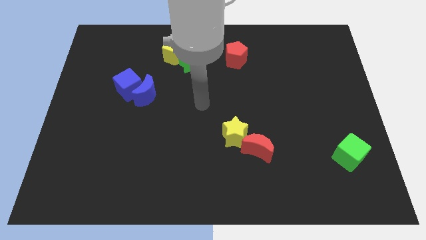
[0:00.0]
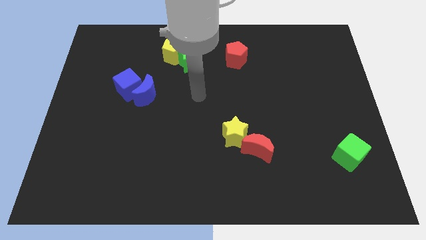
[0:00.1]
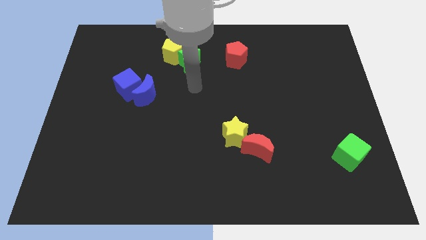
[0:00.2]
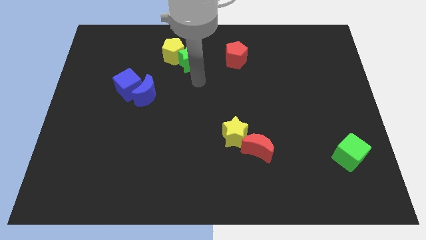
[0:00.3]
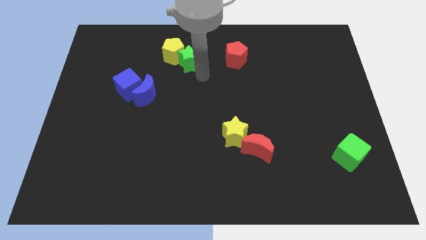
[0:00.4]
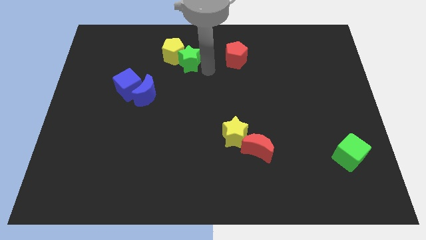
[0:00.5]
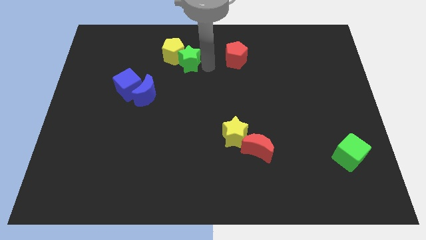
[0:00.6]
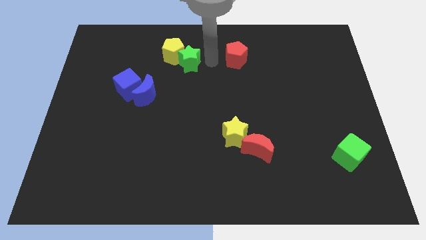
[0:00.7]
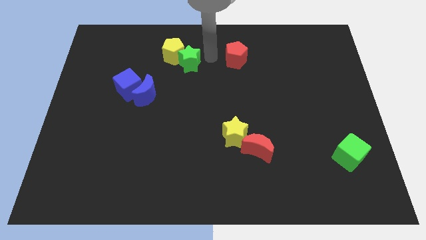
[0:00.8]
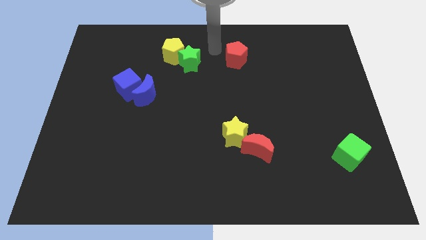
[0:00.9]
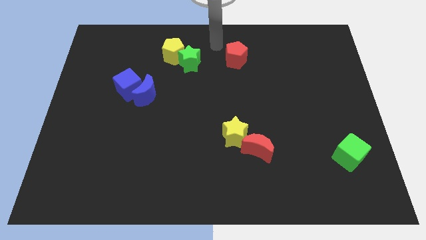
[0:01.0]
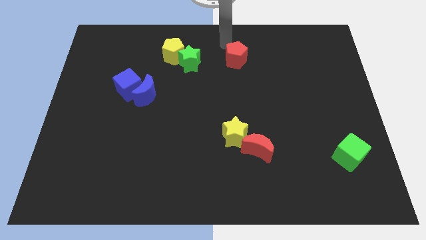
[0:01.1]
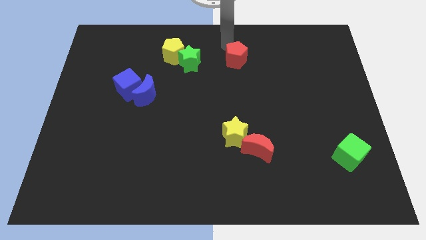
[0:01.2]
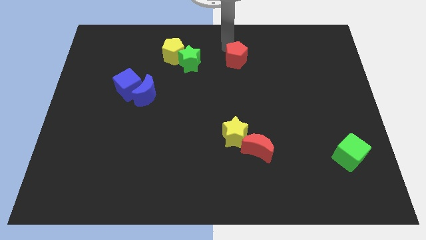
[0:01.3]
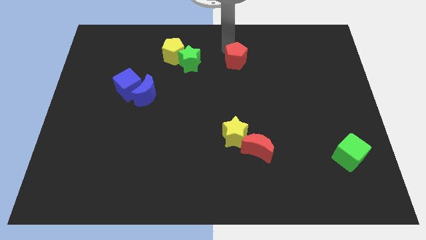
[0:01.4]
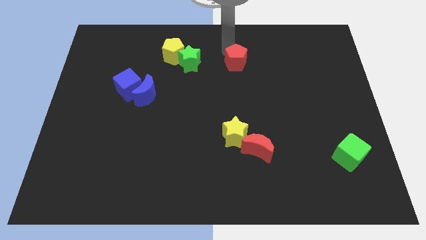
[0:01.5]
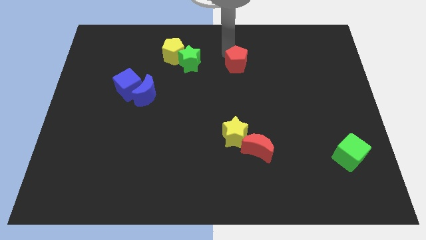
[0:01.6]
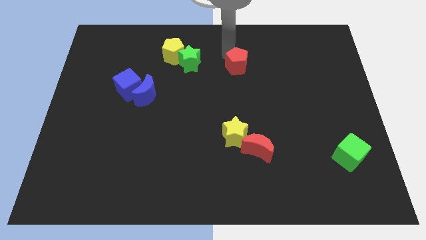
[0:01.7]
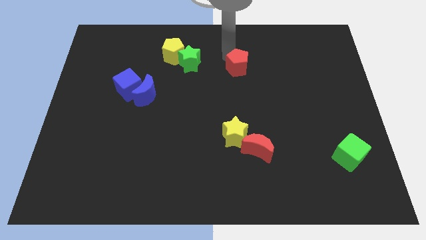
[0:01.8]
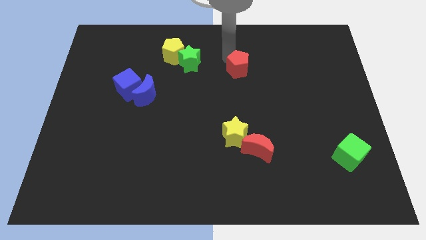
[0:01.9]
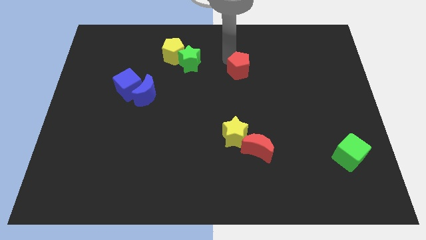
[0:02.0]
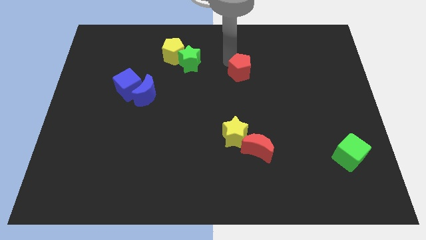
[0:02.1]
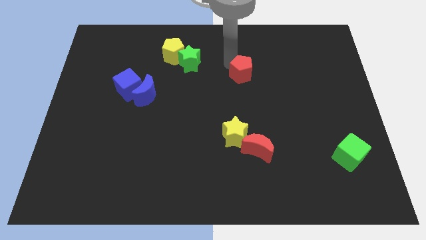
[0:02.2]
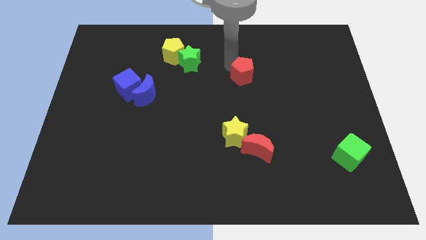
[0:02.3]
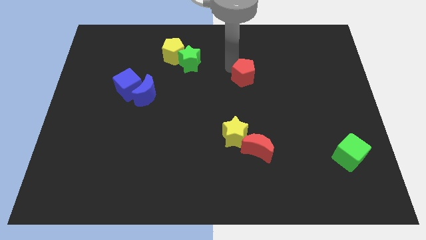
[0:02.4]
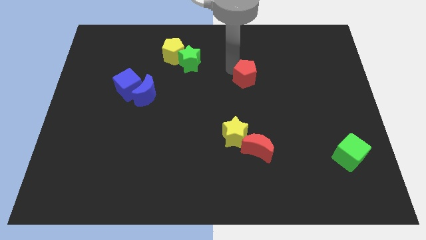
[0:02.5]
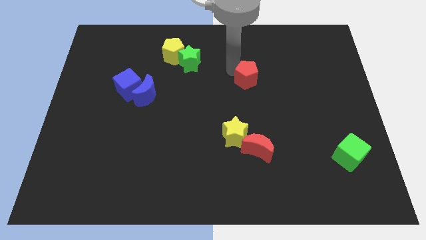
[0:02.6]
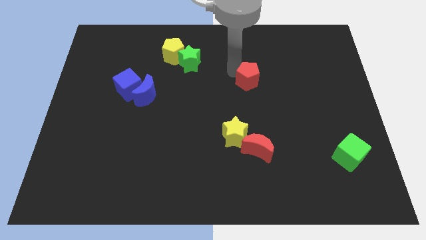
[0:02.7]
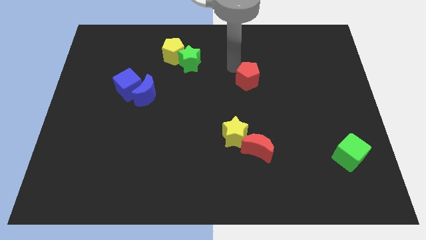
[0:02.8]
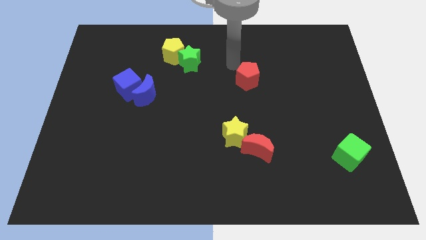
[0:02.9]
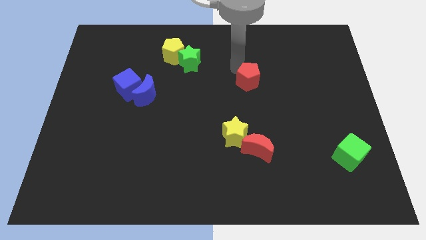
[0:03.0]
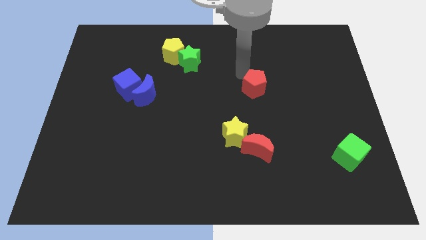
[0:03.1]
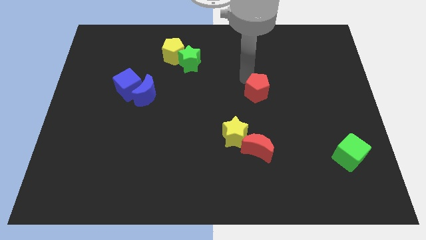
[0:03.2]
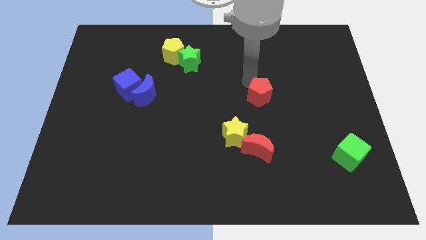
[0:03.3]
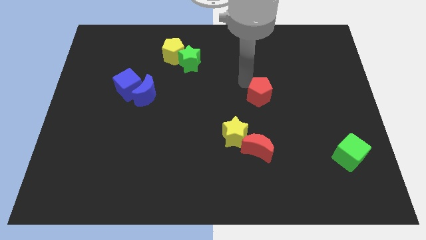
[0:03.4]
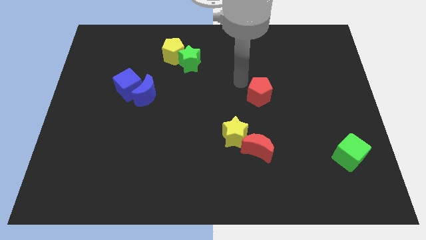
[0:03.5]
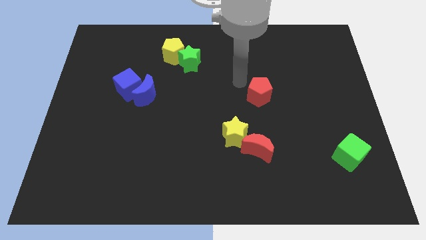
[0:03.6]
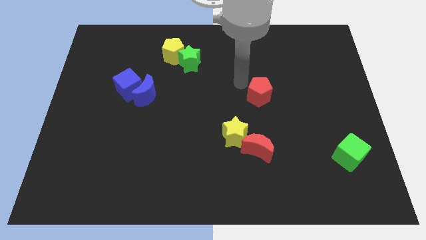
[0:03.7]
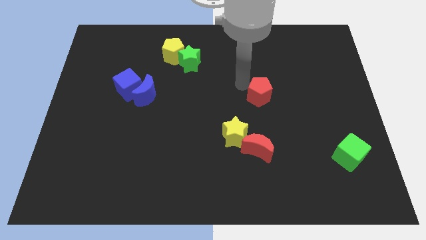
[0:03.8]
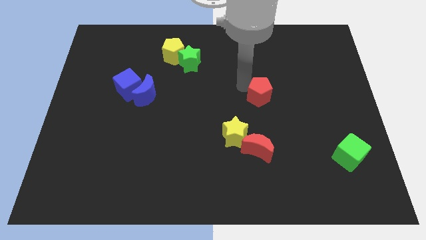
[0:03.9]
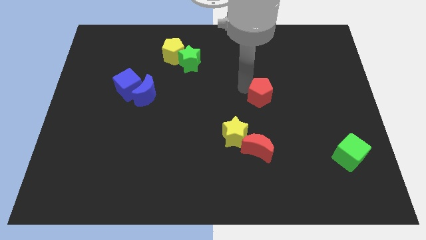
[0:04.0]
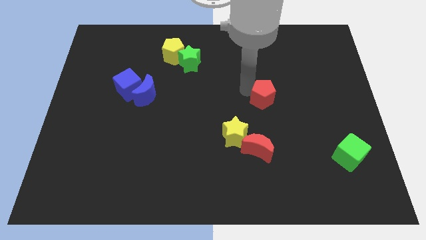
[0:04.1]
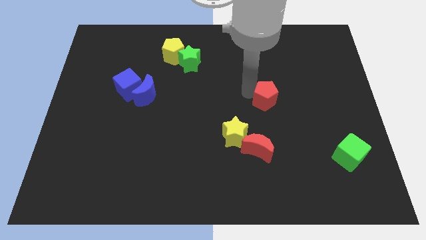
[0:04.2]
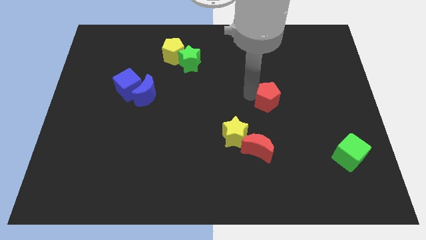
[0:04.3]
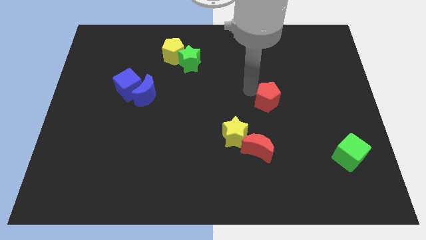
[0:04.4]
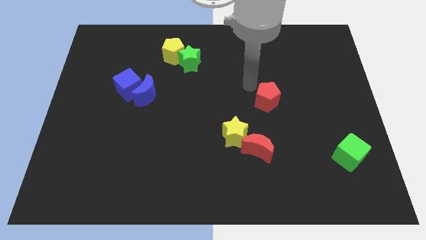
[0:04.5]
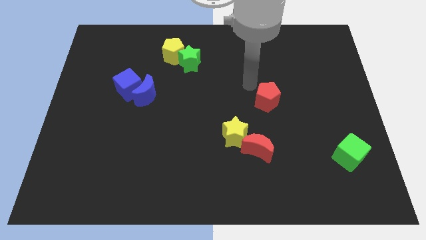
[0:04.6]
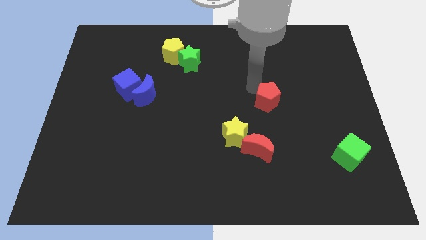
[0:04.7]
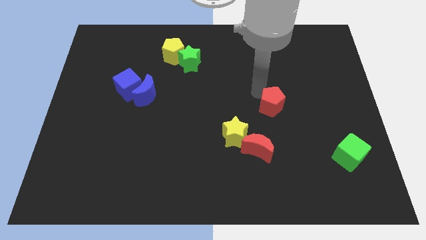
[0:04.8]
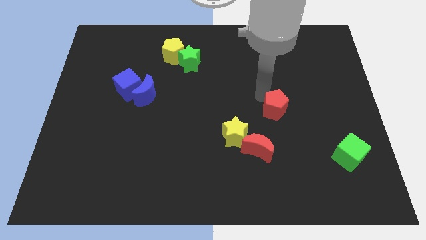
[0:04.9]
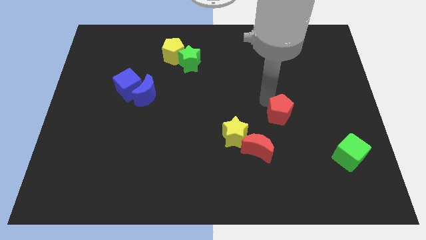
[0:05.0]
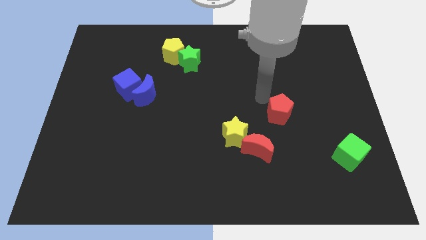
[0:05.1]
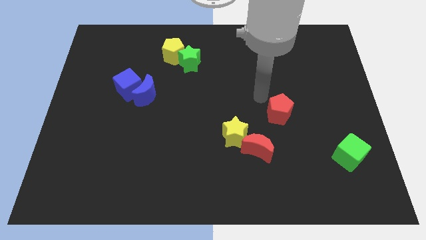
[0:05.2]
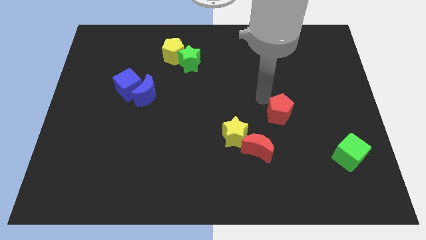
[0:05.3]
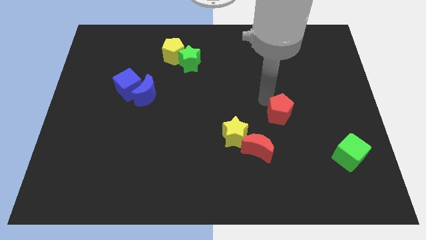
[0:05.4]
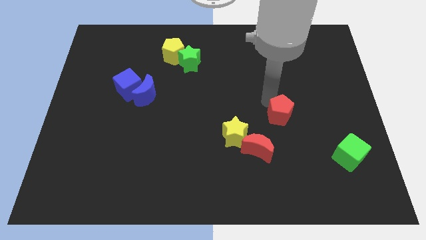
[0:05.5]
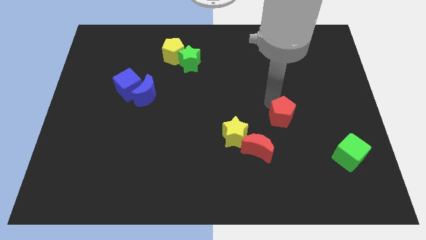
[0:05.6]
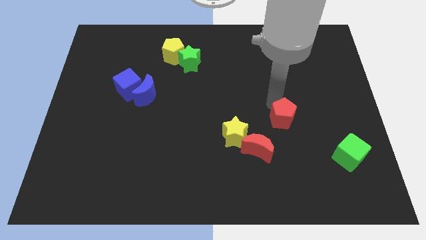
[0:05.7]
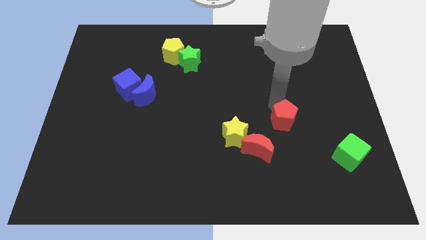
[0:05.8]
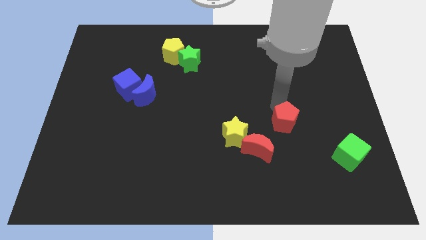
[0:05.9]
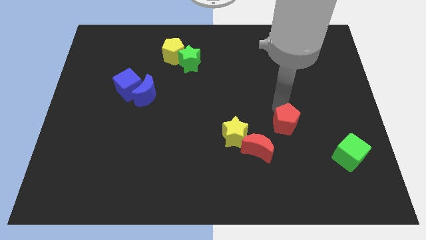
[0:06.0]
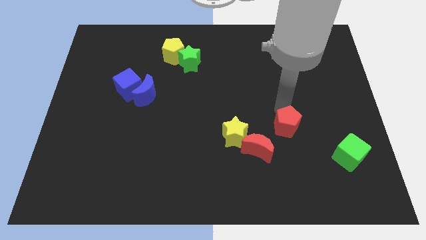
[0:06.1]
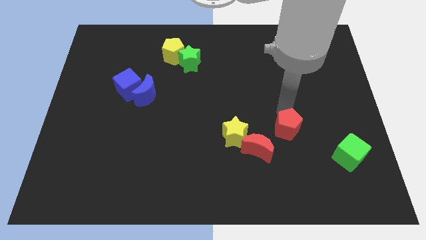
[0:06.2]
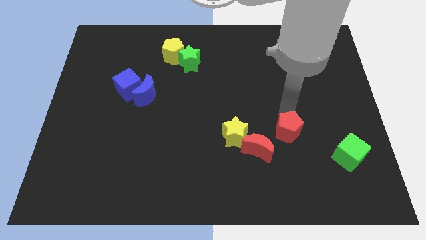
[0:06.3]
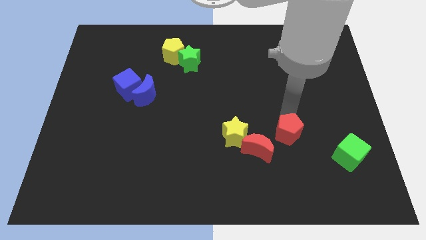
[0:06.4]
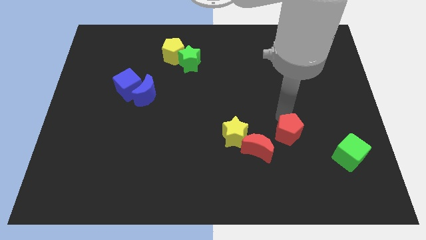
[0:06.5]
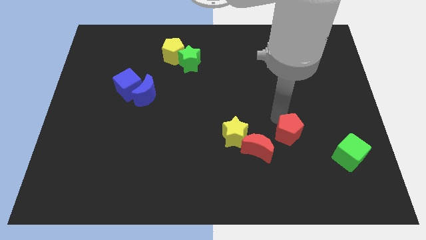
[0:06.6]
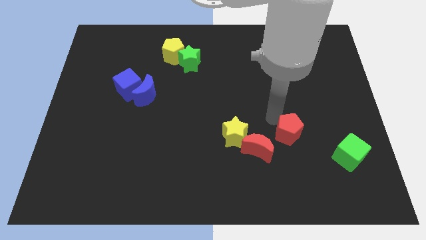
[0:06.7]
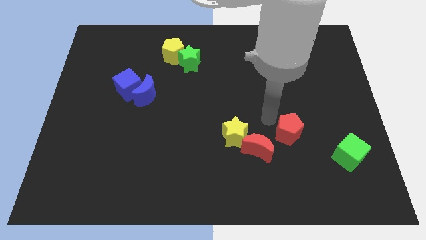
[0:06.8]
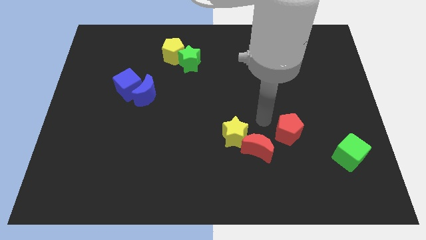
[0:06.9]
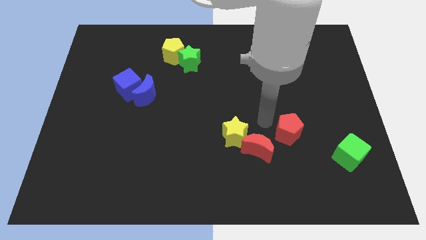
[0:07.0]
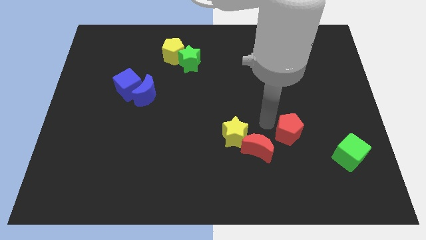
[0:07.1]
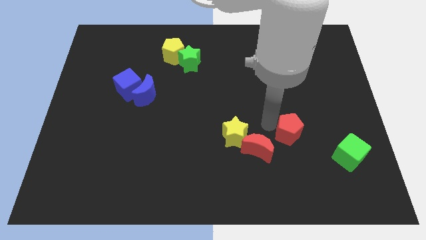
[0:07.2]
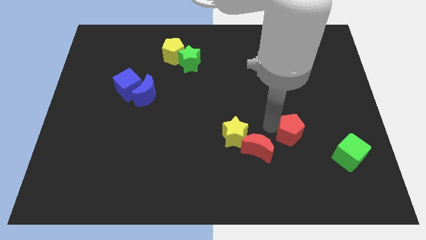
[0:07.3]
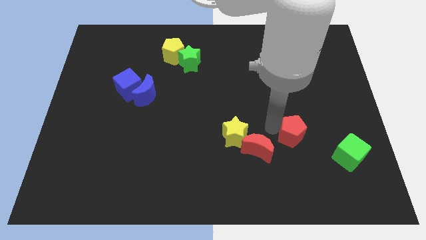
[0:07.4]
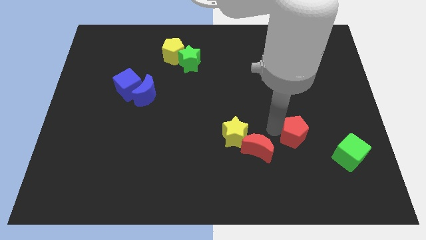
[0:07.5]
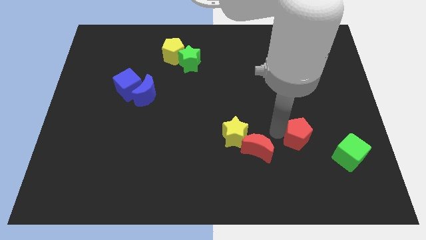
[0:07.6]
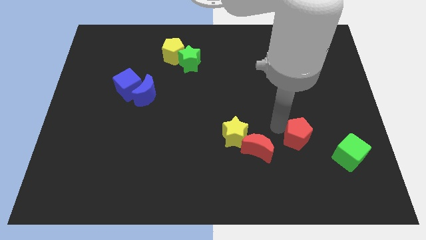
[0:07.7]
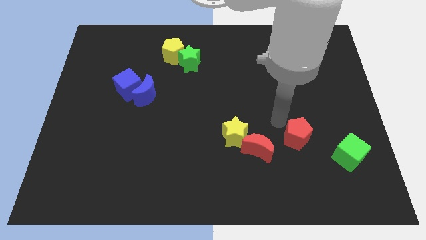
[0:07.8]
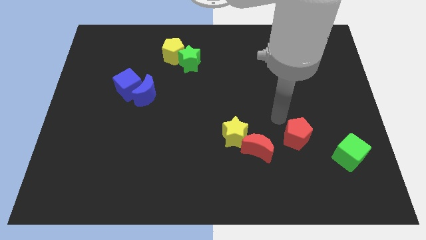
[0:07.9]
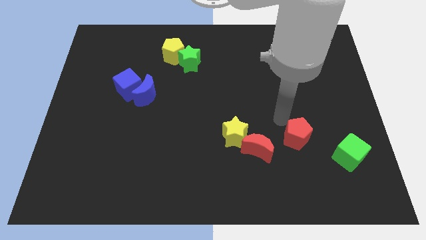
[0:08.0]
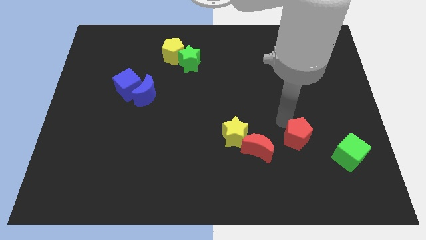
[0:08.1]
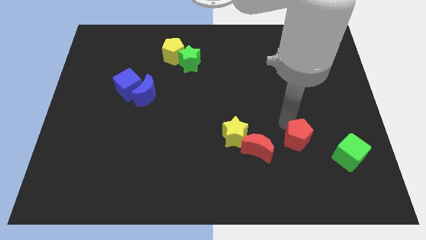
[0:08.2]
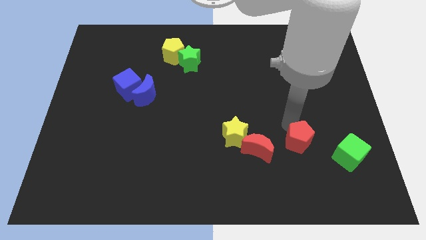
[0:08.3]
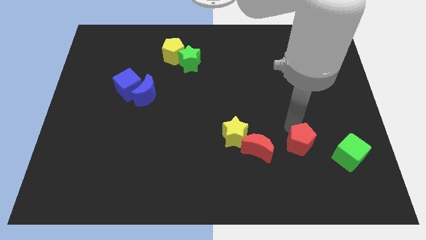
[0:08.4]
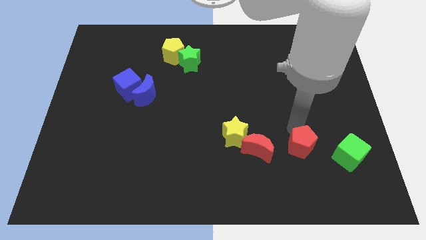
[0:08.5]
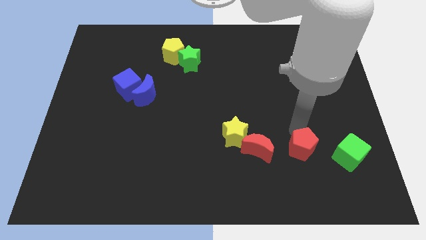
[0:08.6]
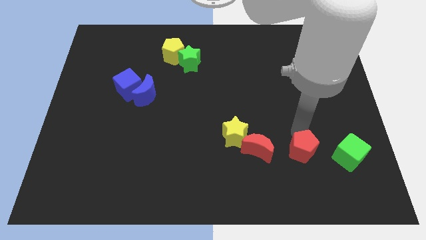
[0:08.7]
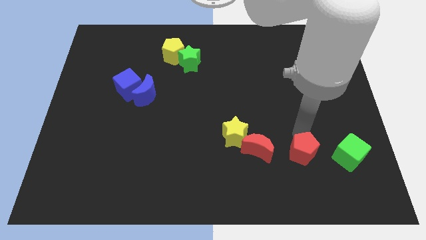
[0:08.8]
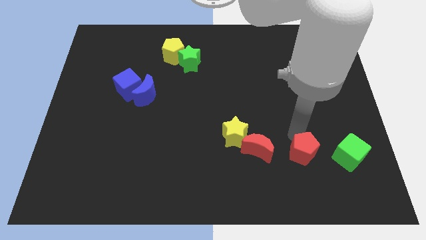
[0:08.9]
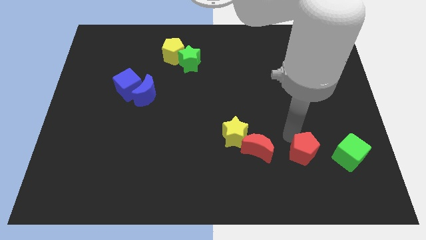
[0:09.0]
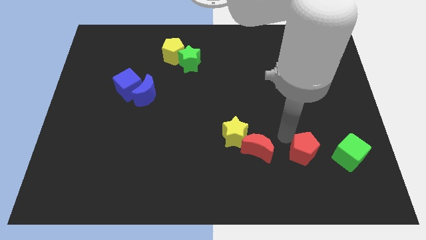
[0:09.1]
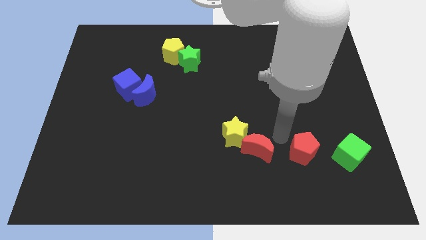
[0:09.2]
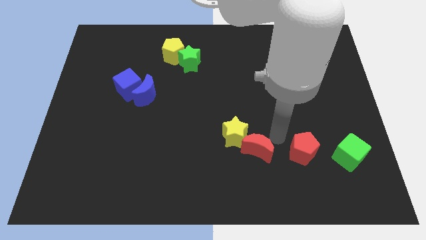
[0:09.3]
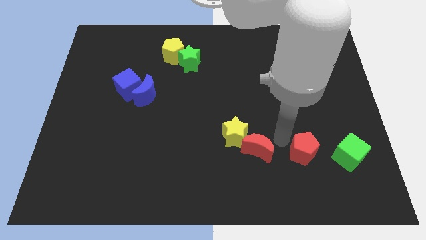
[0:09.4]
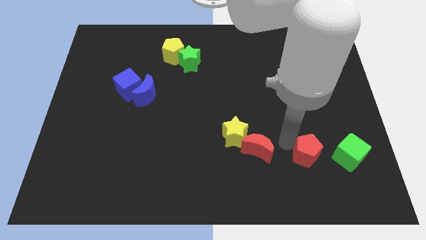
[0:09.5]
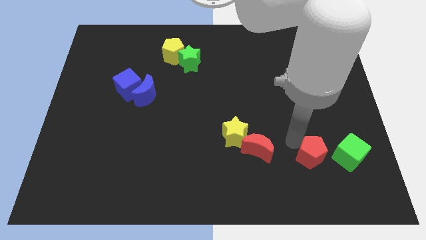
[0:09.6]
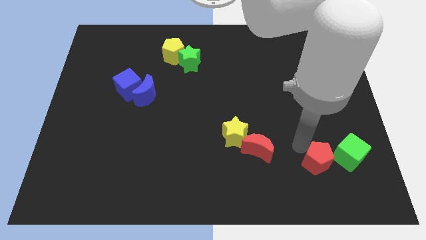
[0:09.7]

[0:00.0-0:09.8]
put the red pentagon to the bottom left of the green cube
